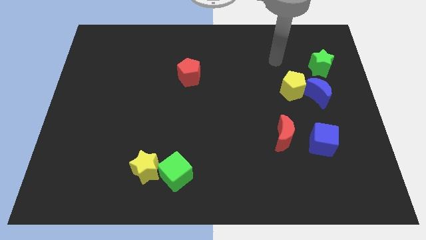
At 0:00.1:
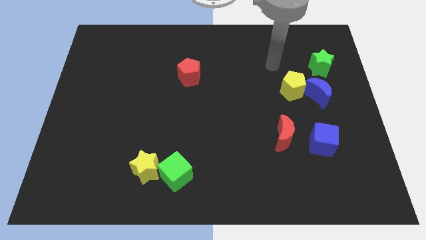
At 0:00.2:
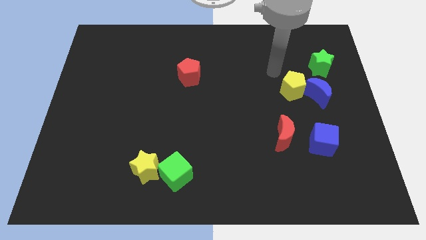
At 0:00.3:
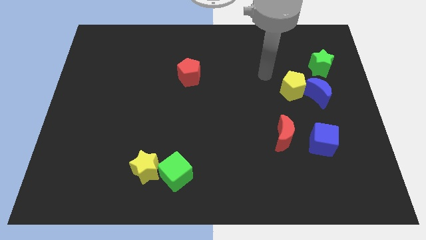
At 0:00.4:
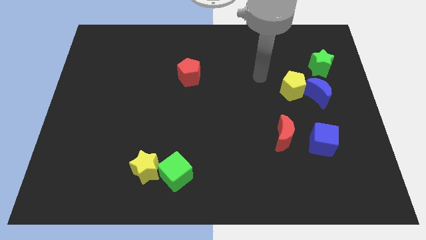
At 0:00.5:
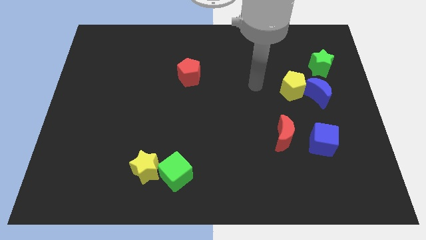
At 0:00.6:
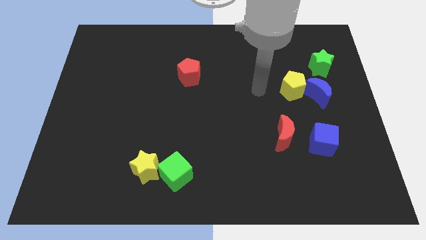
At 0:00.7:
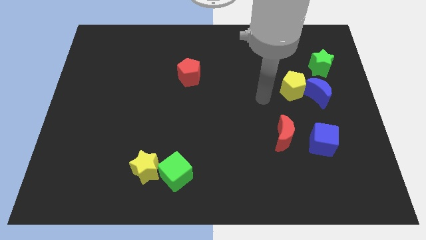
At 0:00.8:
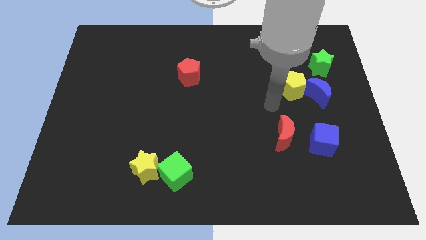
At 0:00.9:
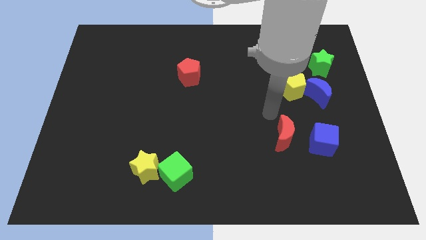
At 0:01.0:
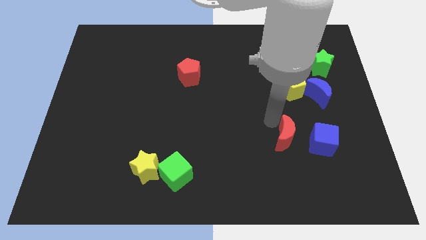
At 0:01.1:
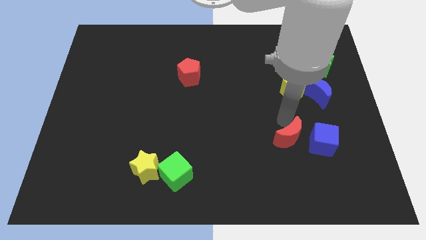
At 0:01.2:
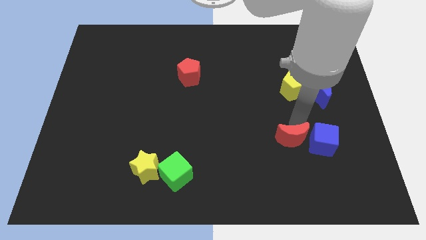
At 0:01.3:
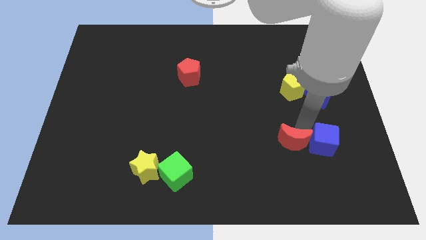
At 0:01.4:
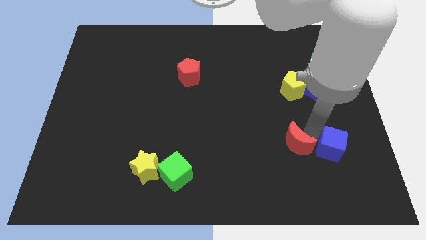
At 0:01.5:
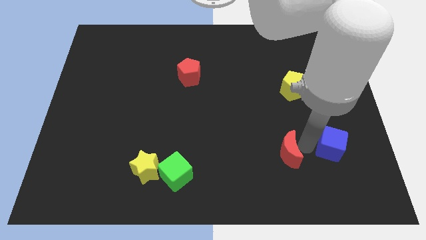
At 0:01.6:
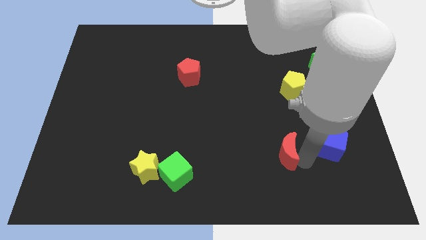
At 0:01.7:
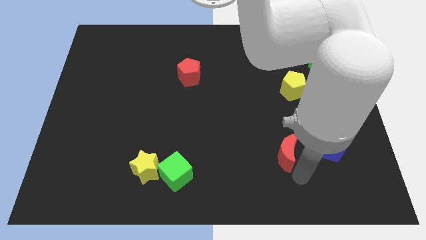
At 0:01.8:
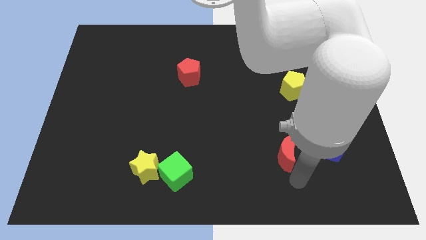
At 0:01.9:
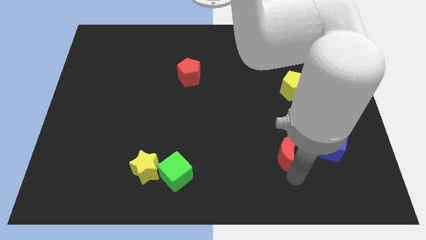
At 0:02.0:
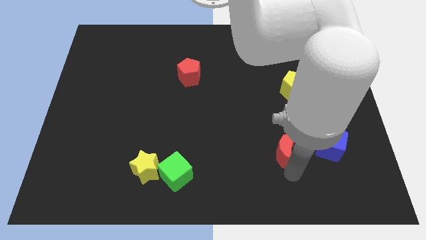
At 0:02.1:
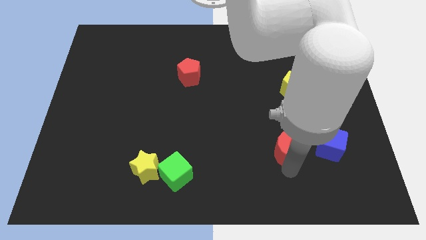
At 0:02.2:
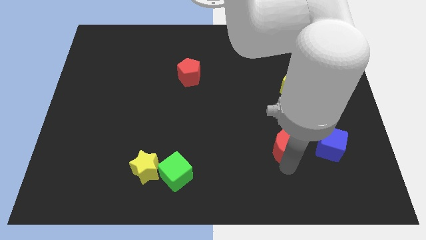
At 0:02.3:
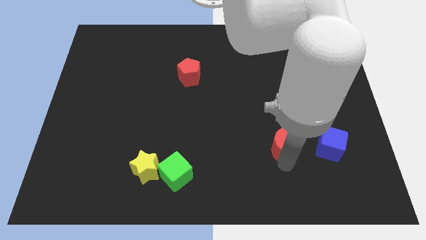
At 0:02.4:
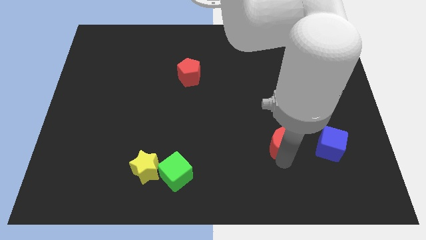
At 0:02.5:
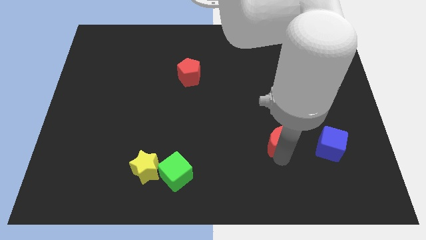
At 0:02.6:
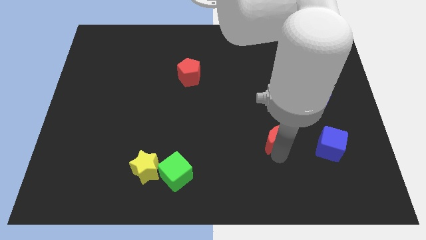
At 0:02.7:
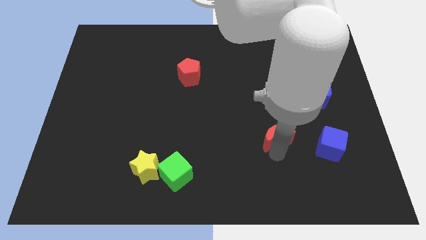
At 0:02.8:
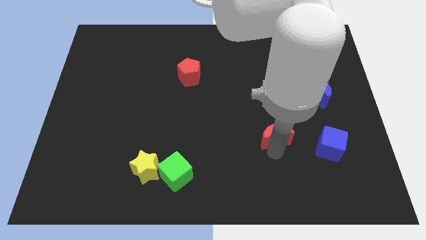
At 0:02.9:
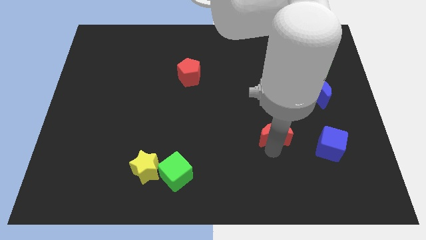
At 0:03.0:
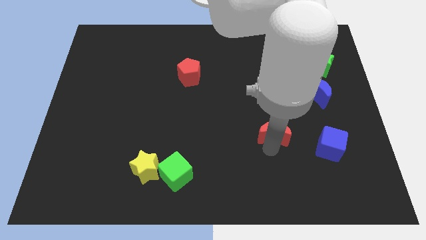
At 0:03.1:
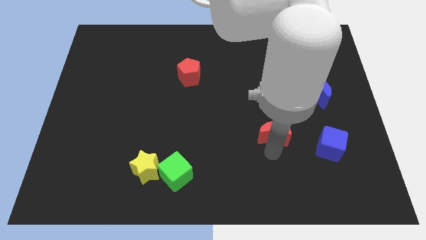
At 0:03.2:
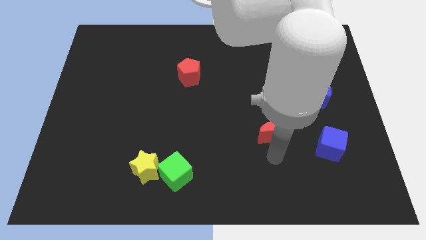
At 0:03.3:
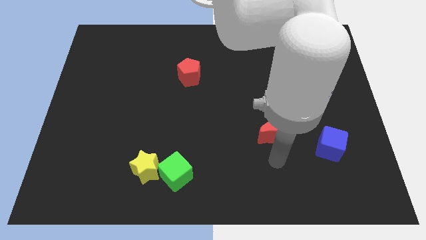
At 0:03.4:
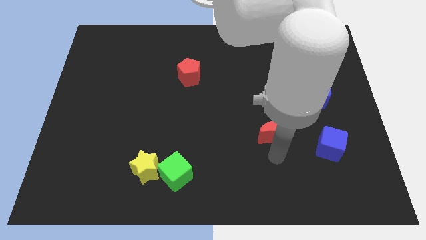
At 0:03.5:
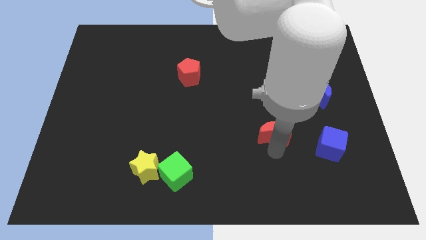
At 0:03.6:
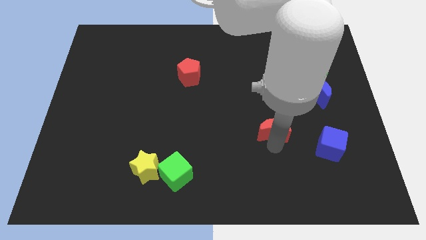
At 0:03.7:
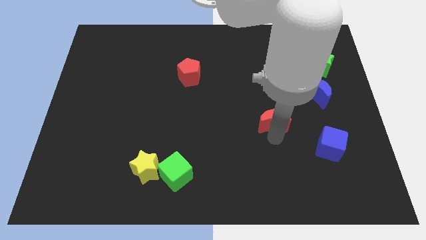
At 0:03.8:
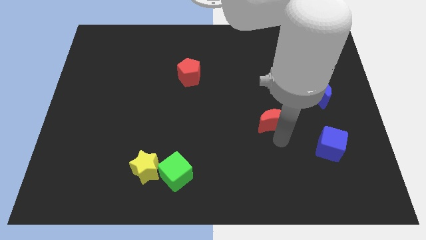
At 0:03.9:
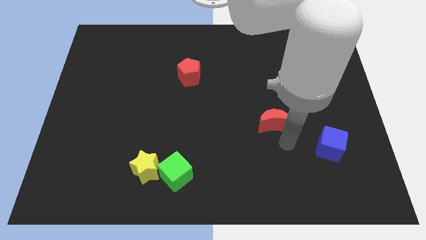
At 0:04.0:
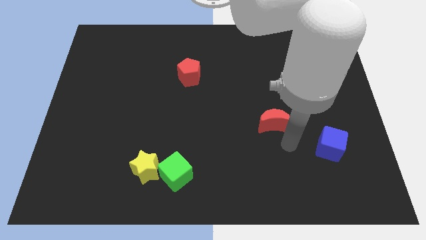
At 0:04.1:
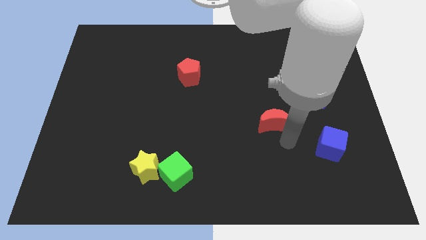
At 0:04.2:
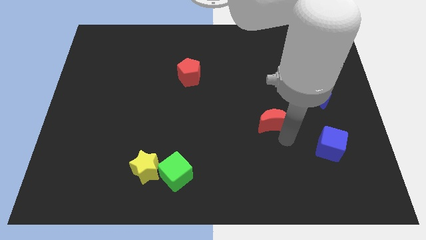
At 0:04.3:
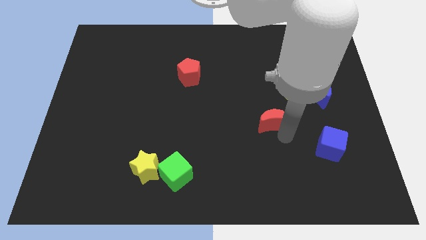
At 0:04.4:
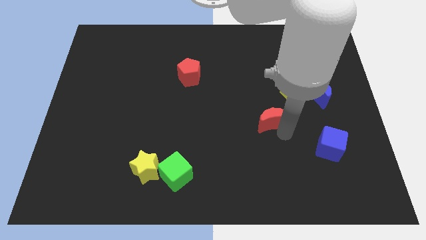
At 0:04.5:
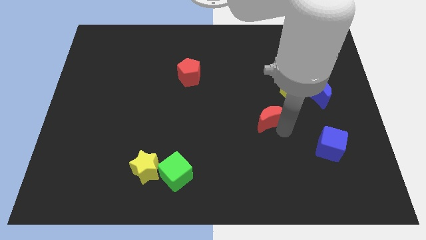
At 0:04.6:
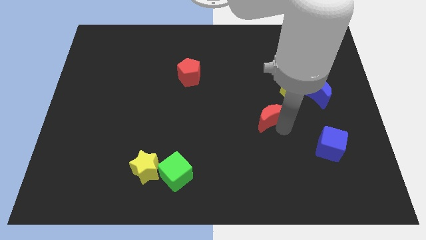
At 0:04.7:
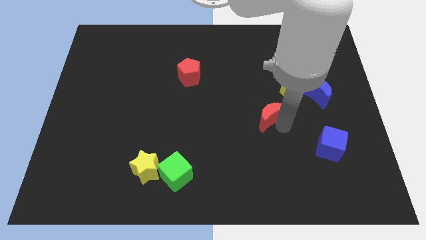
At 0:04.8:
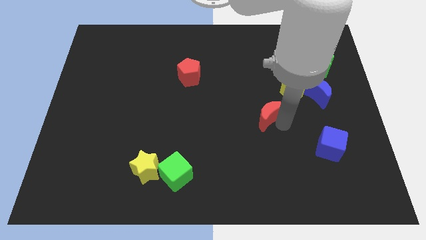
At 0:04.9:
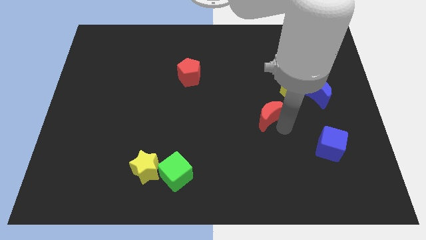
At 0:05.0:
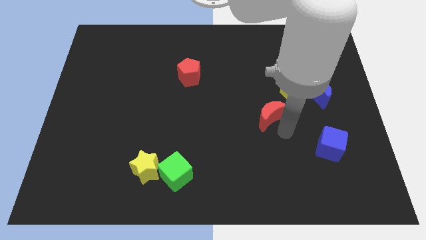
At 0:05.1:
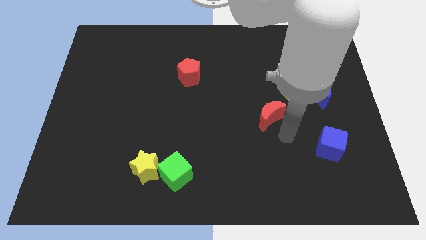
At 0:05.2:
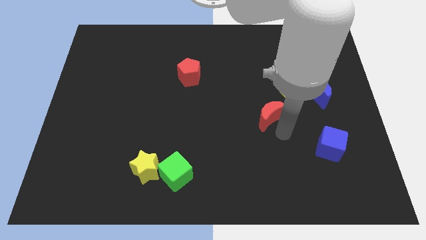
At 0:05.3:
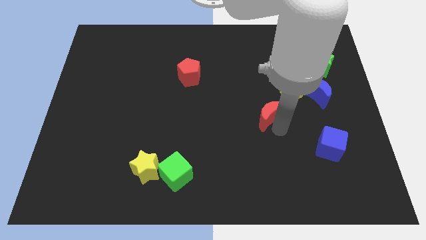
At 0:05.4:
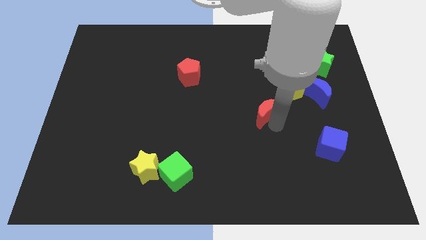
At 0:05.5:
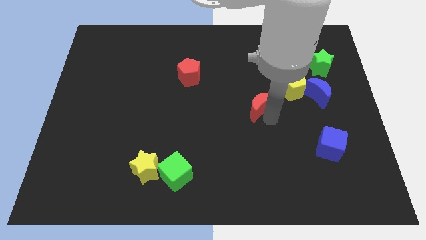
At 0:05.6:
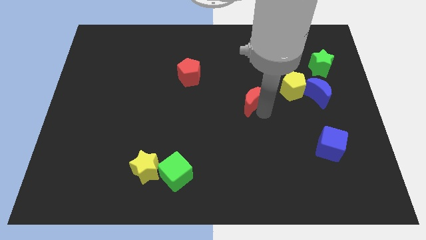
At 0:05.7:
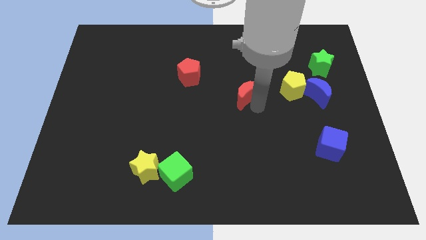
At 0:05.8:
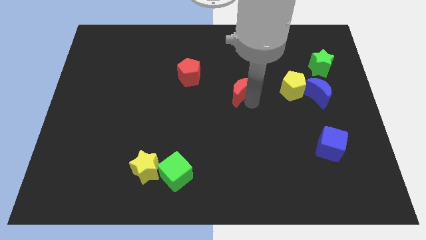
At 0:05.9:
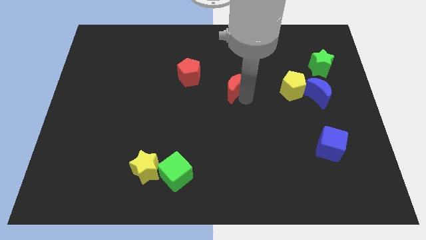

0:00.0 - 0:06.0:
slide the red moon to the right side of the red pentagon

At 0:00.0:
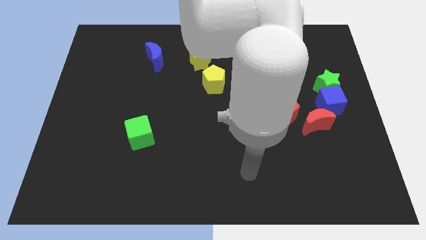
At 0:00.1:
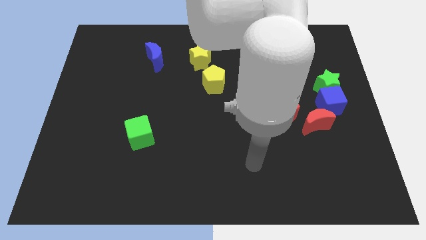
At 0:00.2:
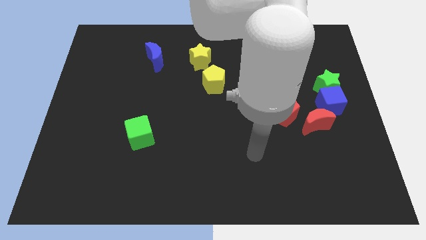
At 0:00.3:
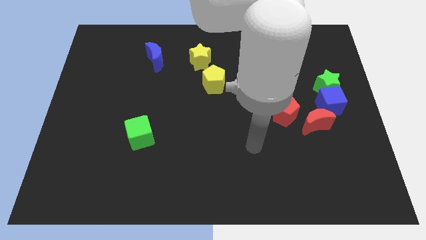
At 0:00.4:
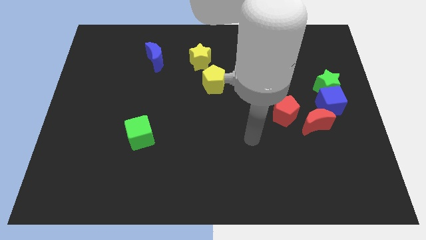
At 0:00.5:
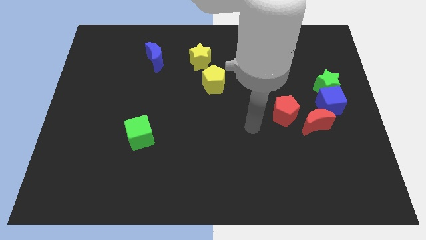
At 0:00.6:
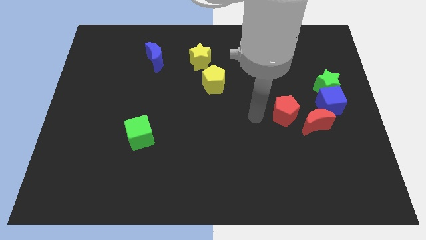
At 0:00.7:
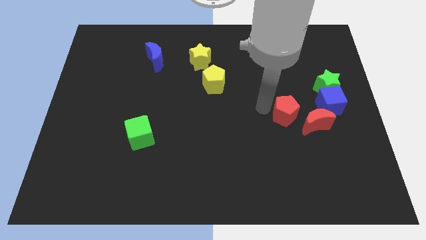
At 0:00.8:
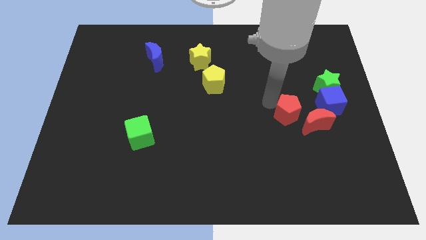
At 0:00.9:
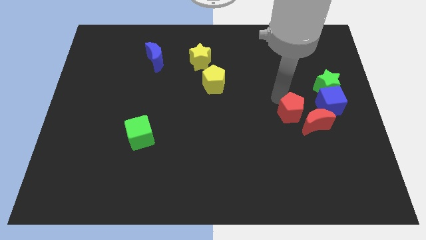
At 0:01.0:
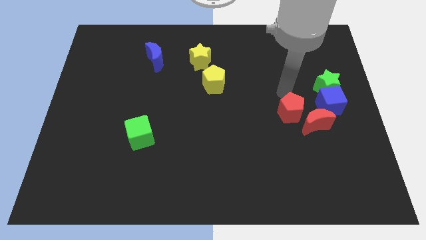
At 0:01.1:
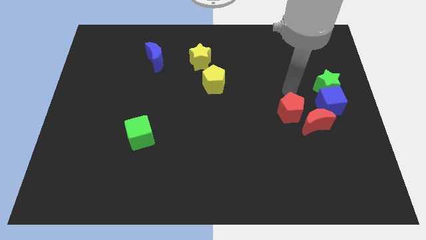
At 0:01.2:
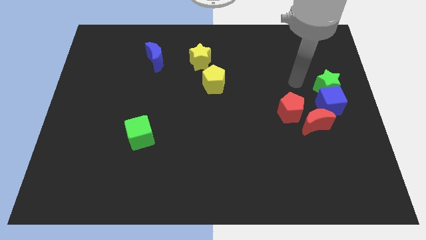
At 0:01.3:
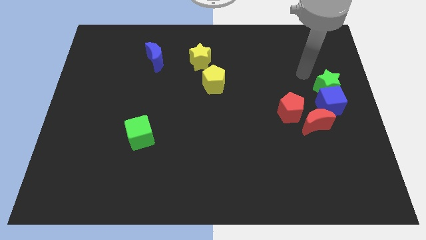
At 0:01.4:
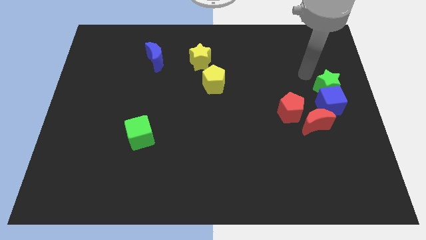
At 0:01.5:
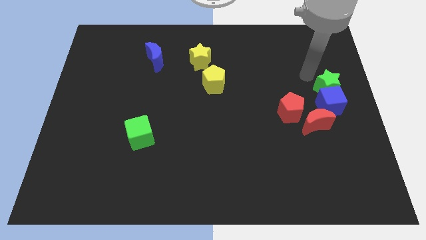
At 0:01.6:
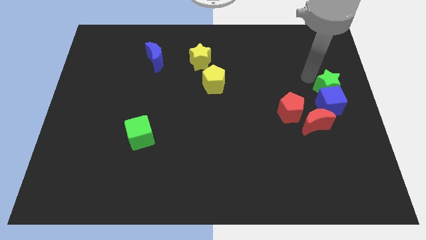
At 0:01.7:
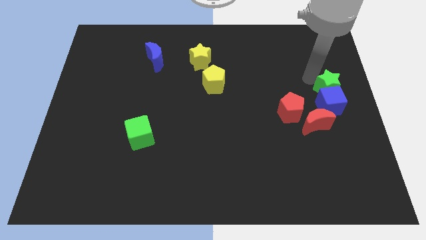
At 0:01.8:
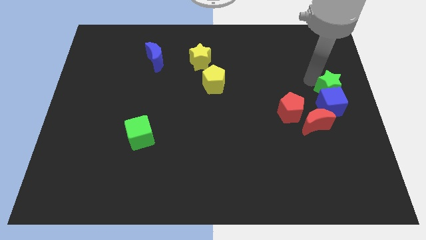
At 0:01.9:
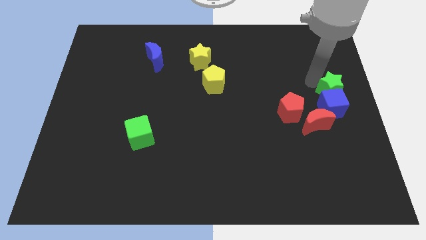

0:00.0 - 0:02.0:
slide the green star diagonally up and to the right of the red moon

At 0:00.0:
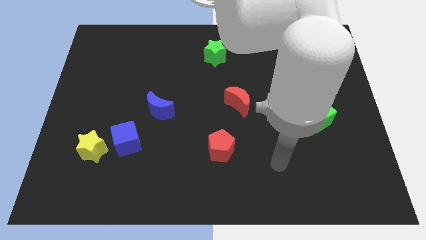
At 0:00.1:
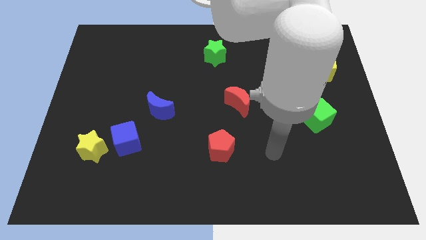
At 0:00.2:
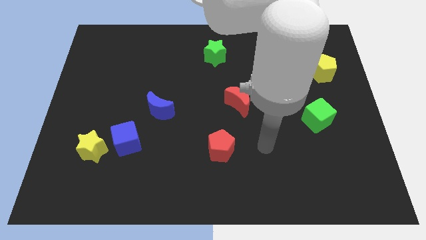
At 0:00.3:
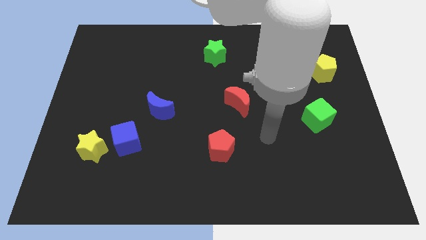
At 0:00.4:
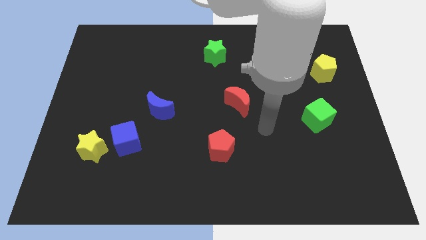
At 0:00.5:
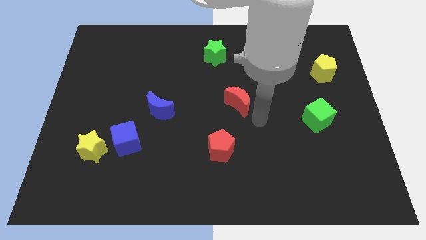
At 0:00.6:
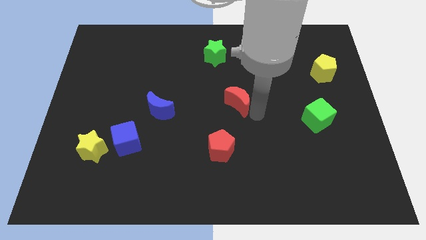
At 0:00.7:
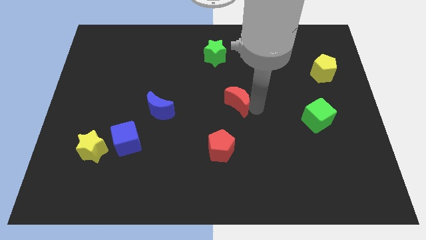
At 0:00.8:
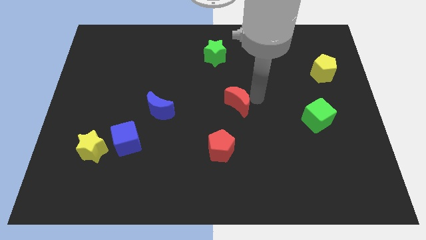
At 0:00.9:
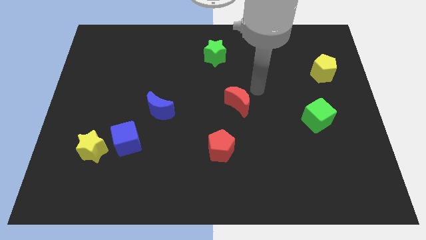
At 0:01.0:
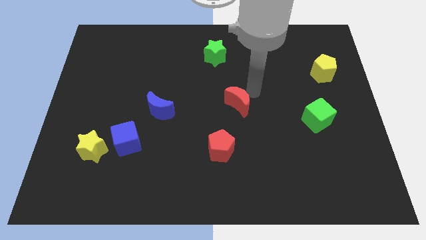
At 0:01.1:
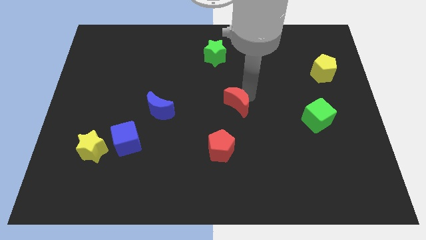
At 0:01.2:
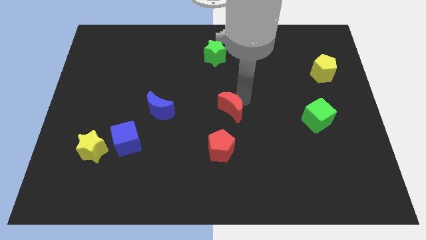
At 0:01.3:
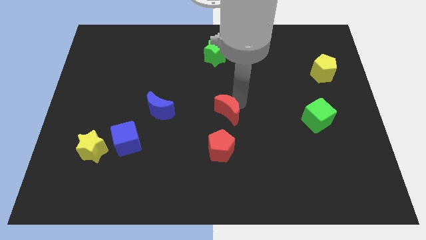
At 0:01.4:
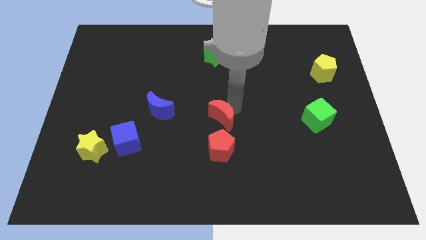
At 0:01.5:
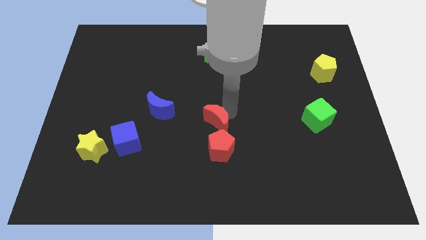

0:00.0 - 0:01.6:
push the red moon to the top left of the red pentagon
